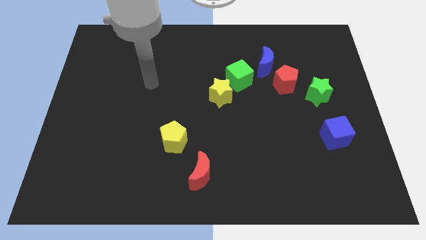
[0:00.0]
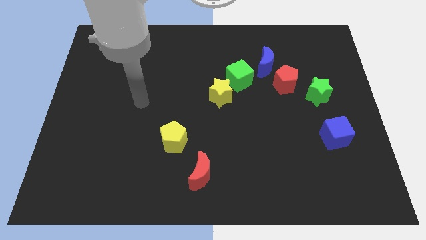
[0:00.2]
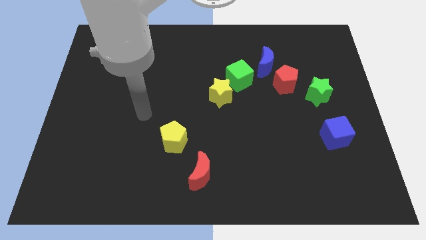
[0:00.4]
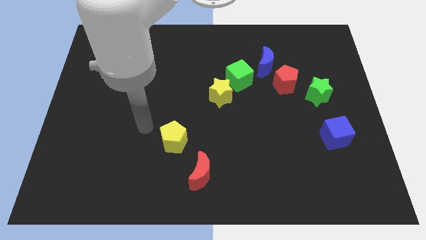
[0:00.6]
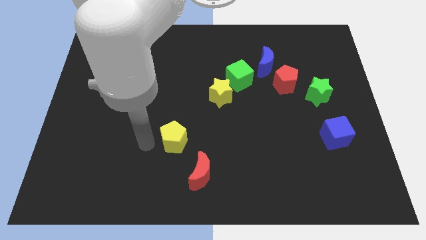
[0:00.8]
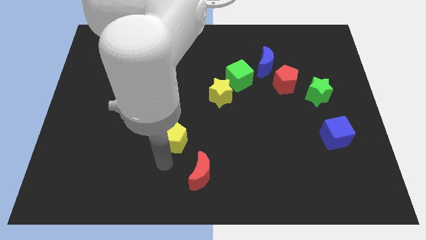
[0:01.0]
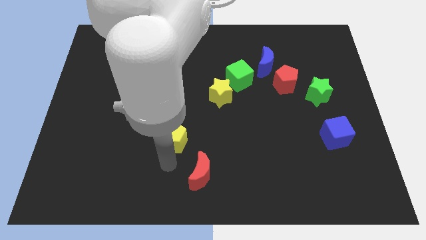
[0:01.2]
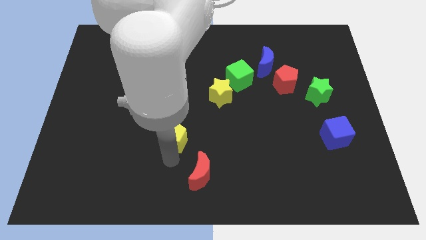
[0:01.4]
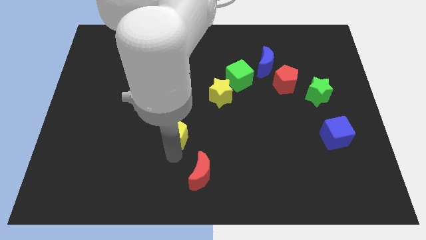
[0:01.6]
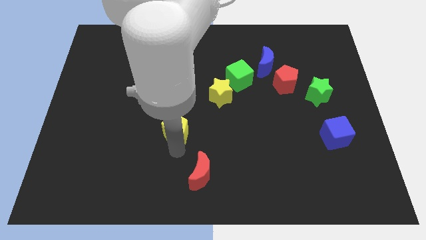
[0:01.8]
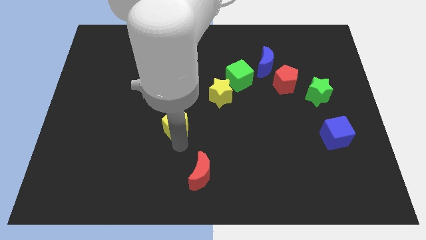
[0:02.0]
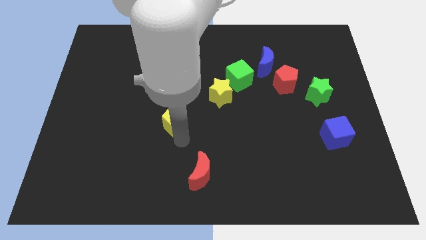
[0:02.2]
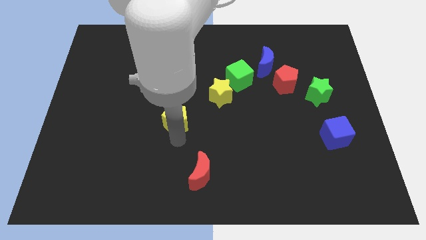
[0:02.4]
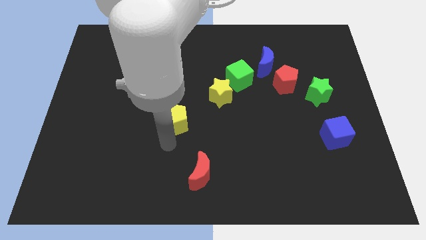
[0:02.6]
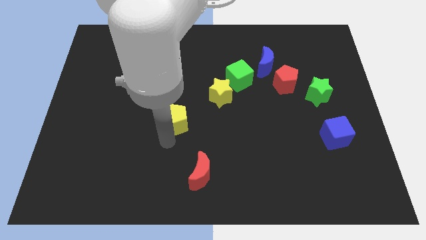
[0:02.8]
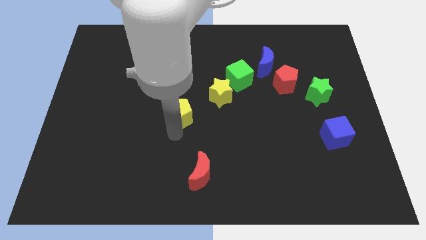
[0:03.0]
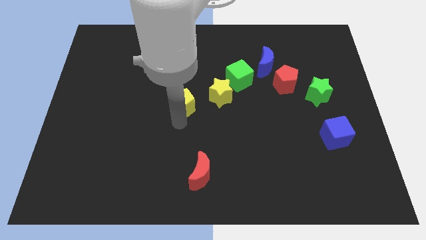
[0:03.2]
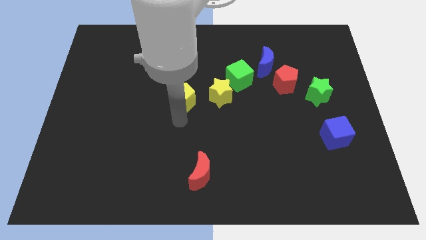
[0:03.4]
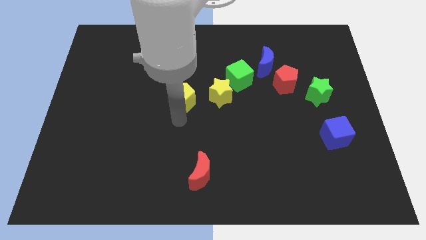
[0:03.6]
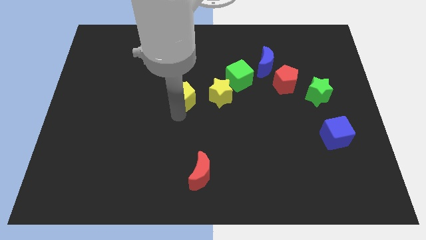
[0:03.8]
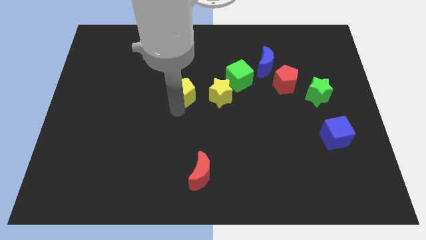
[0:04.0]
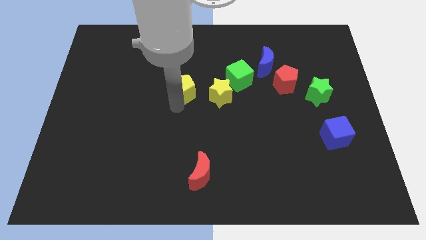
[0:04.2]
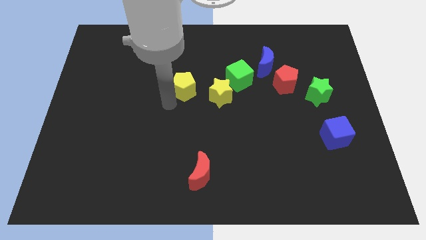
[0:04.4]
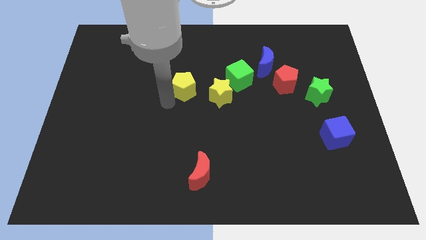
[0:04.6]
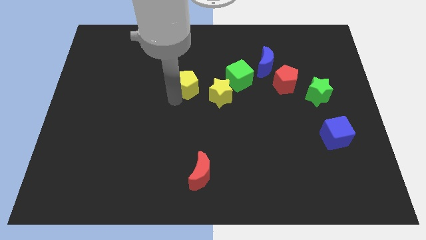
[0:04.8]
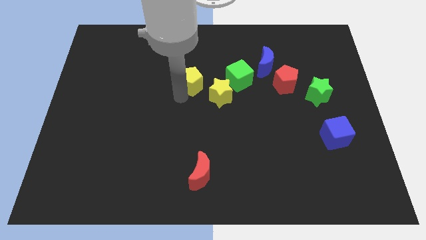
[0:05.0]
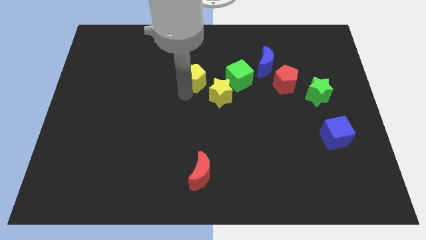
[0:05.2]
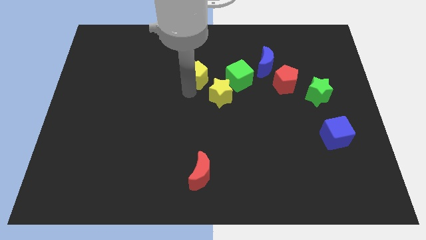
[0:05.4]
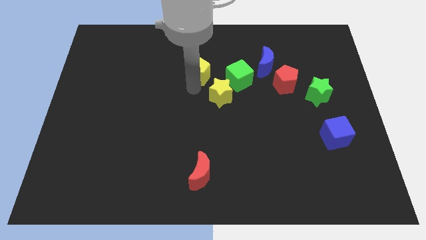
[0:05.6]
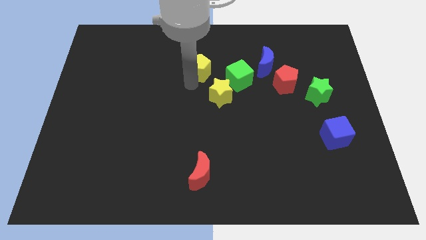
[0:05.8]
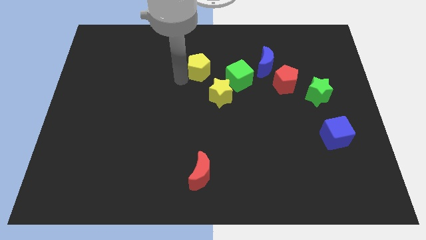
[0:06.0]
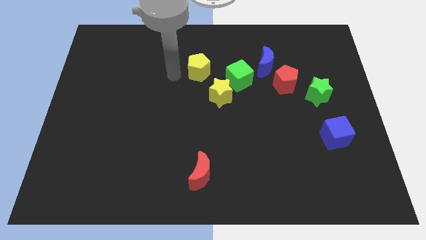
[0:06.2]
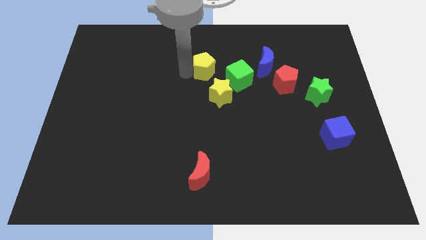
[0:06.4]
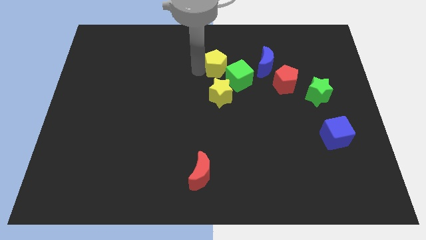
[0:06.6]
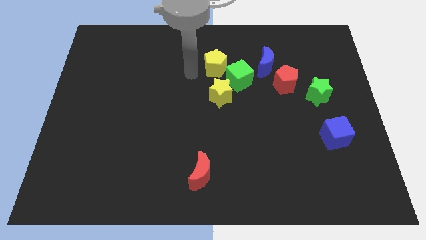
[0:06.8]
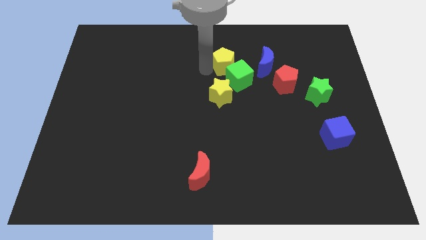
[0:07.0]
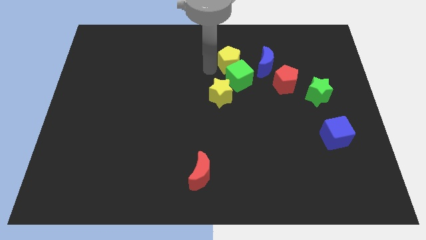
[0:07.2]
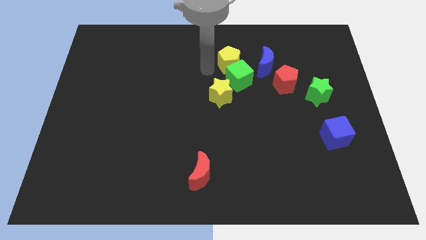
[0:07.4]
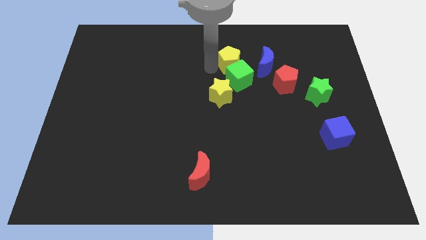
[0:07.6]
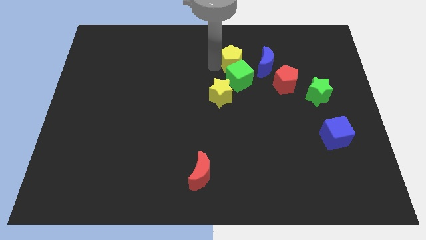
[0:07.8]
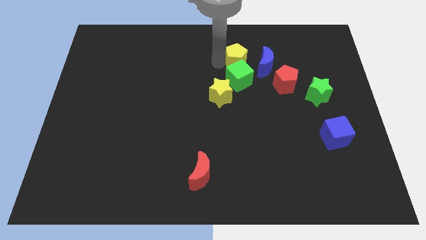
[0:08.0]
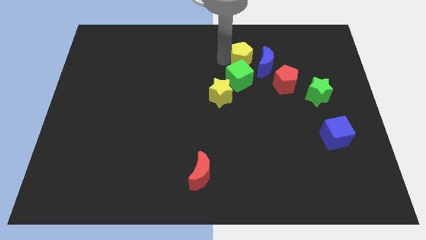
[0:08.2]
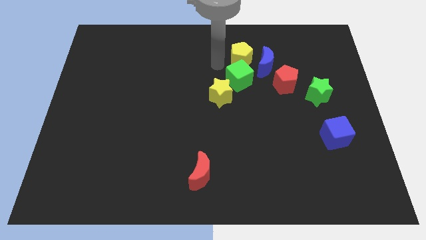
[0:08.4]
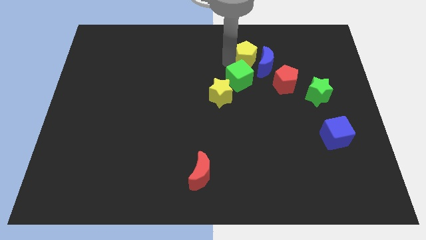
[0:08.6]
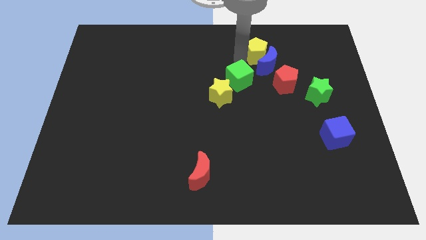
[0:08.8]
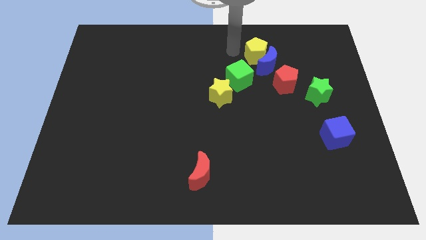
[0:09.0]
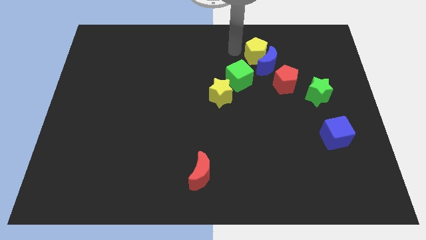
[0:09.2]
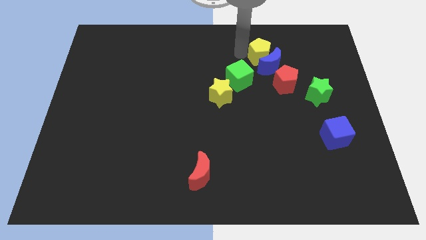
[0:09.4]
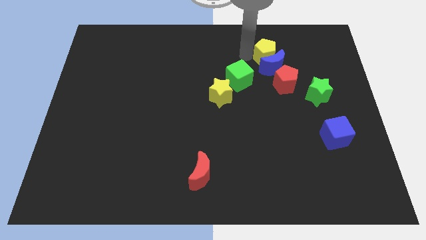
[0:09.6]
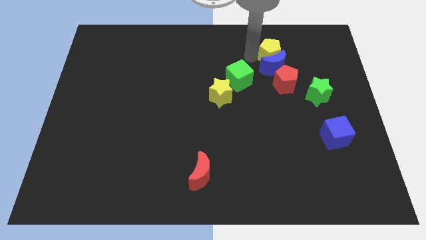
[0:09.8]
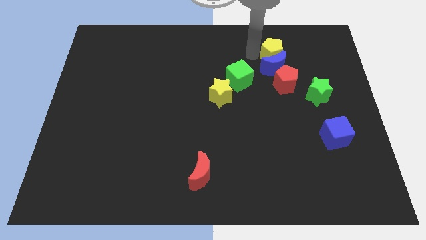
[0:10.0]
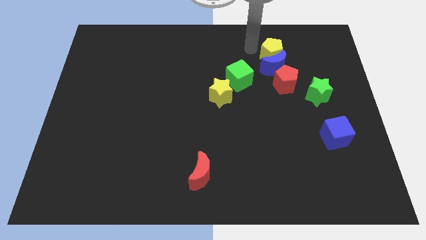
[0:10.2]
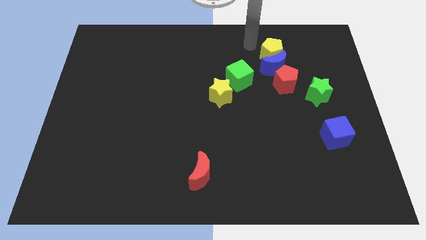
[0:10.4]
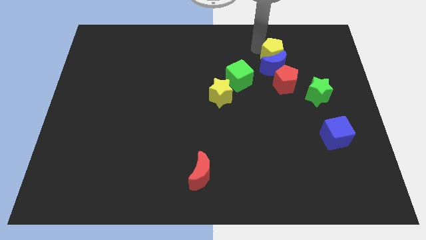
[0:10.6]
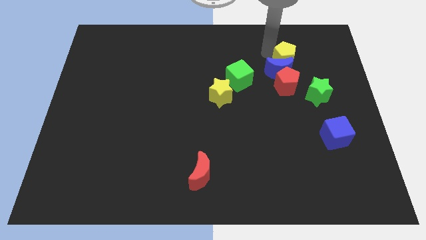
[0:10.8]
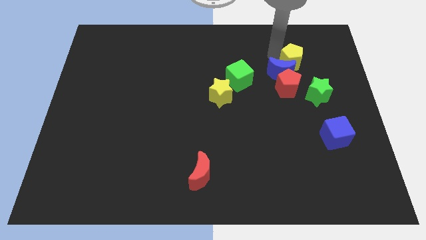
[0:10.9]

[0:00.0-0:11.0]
put the yellow pentagon to the top right of the red pentagon

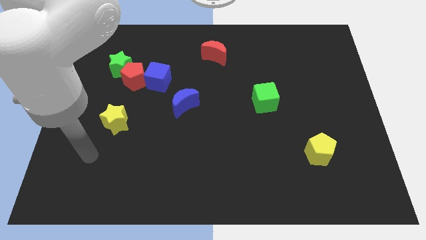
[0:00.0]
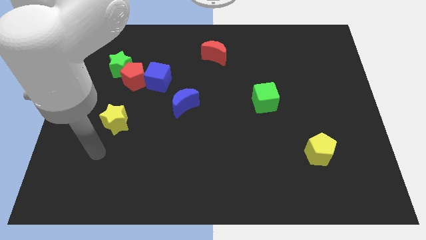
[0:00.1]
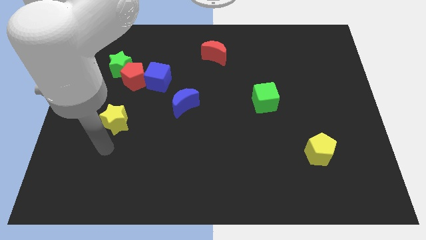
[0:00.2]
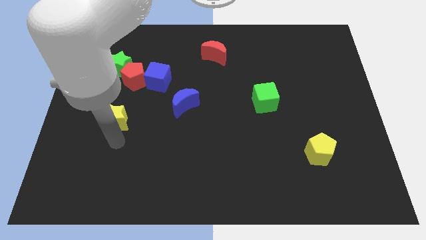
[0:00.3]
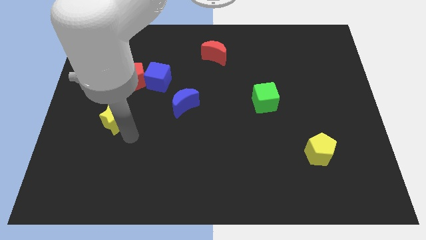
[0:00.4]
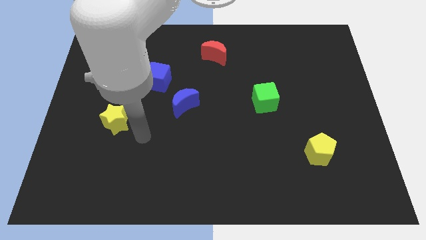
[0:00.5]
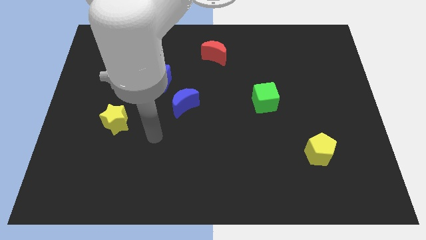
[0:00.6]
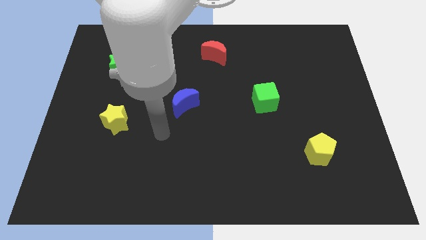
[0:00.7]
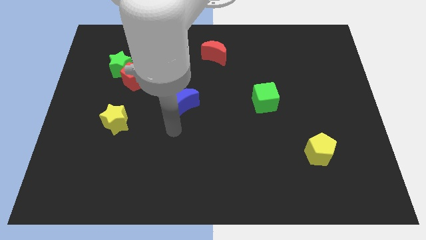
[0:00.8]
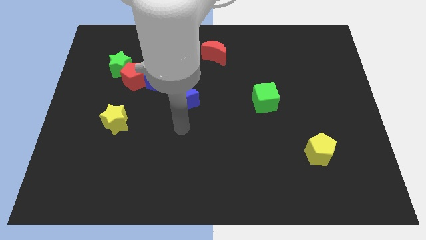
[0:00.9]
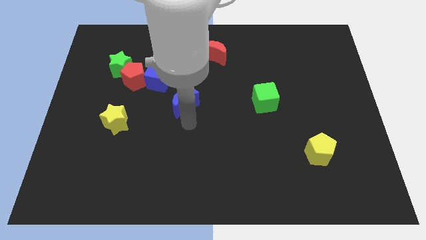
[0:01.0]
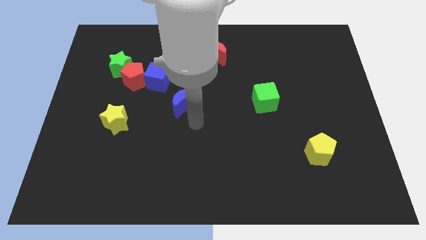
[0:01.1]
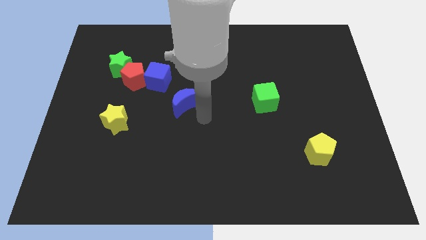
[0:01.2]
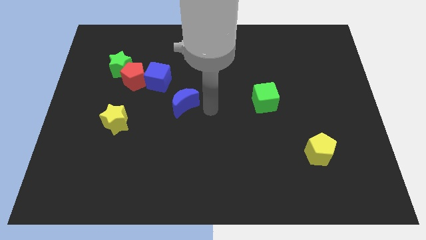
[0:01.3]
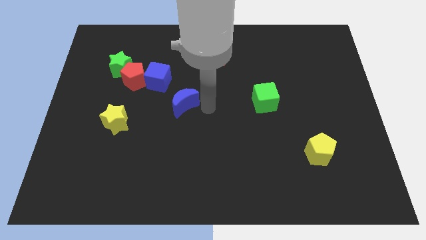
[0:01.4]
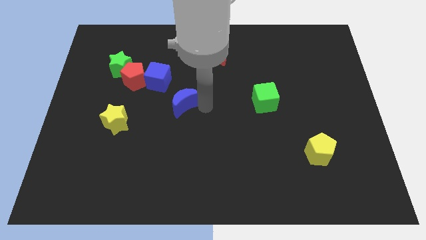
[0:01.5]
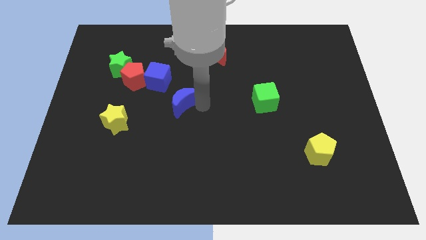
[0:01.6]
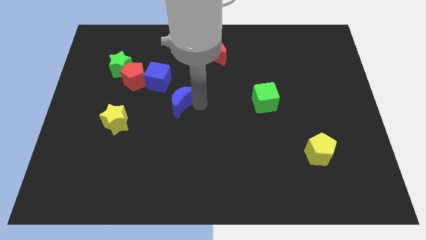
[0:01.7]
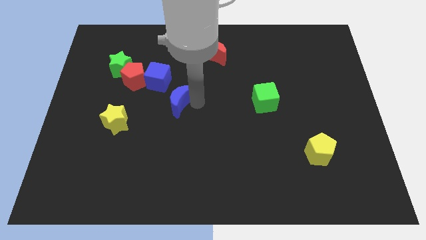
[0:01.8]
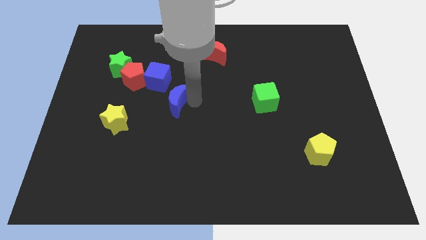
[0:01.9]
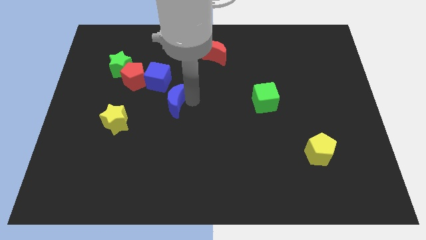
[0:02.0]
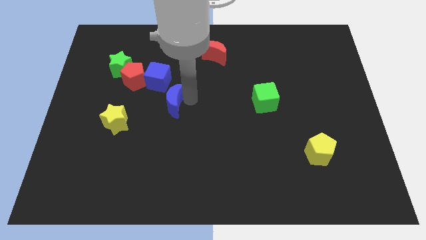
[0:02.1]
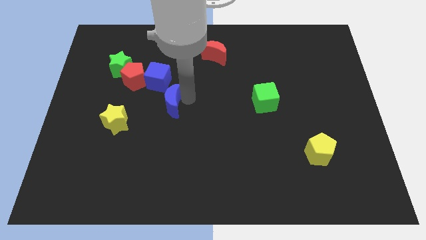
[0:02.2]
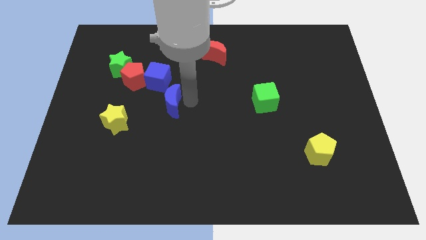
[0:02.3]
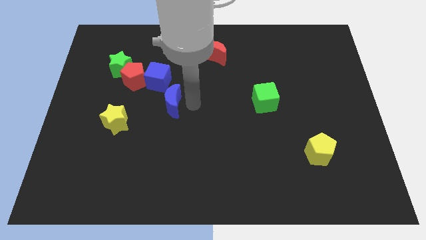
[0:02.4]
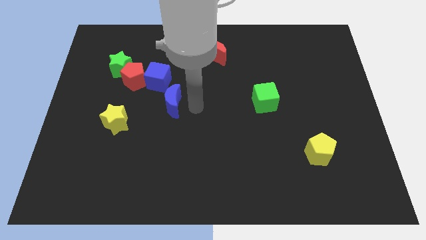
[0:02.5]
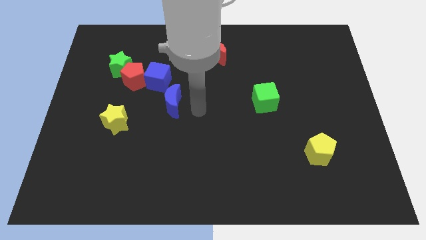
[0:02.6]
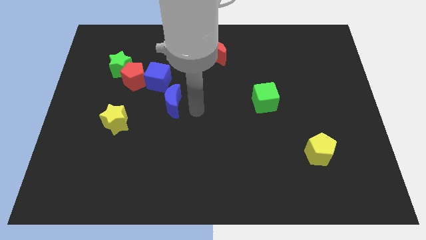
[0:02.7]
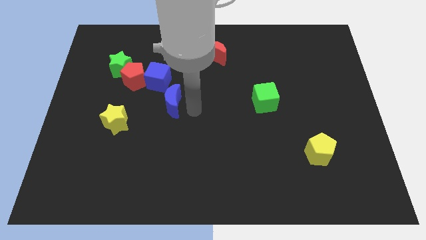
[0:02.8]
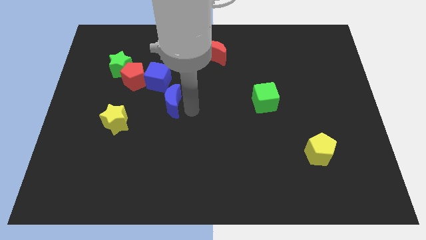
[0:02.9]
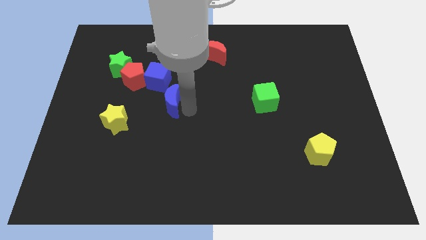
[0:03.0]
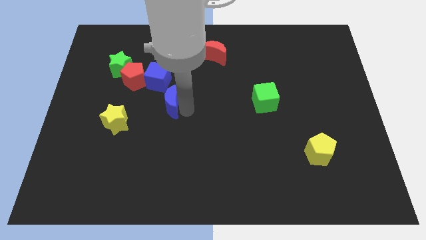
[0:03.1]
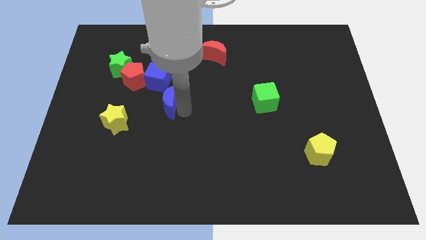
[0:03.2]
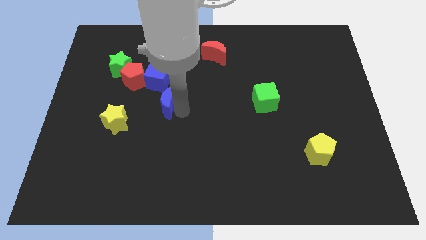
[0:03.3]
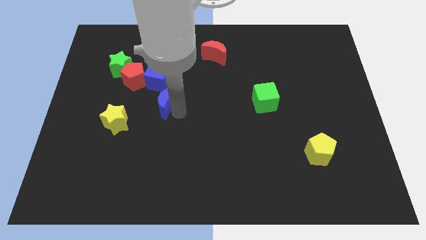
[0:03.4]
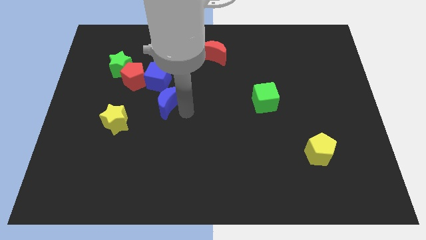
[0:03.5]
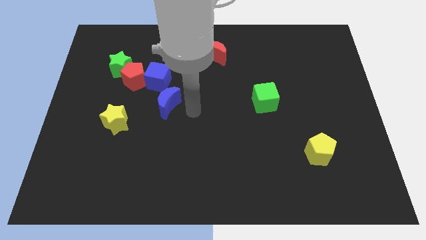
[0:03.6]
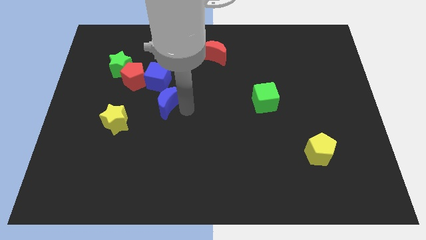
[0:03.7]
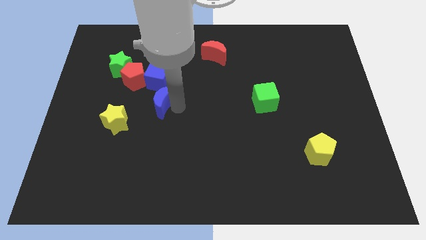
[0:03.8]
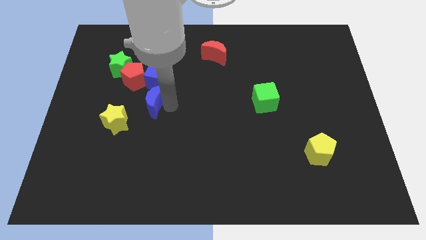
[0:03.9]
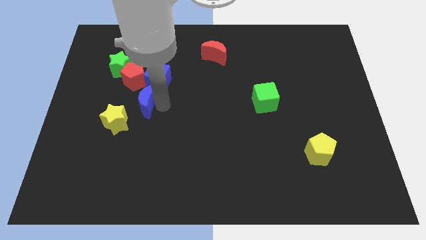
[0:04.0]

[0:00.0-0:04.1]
push the blue moon to the bottom left of the blue cube
